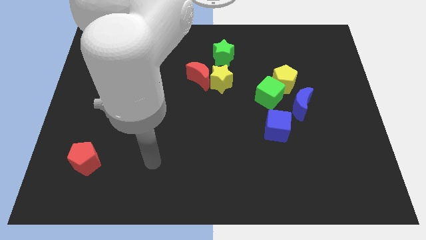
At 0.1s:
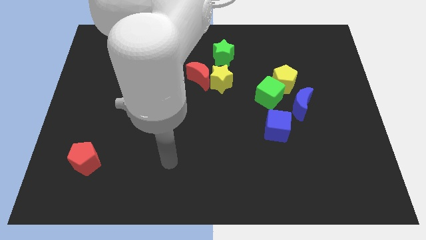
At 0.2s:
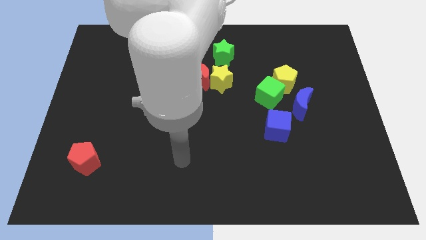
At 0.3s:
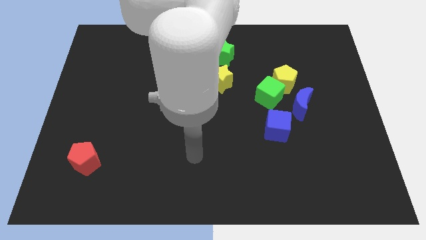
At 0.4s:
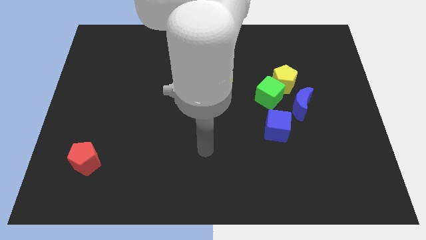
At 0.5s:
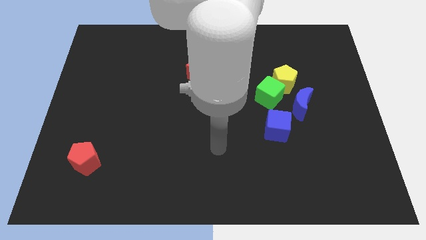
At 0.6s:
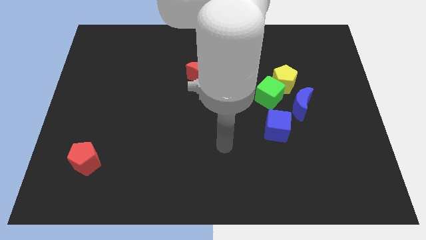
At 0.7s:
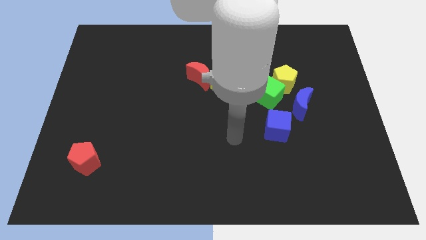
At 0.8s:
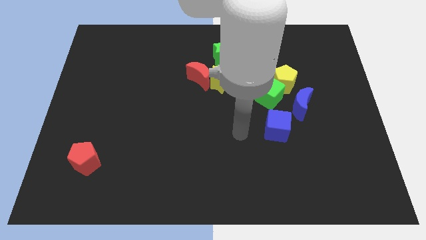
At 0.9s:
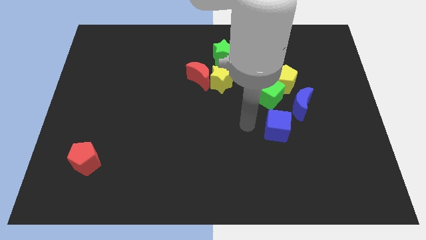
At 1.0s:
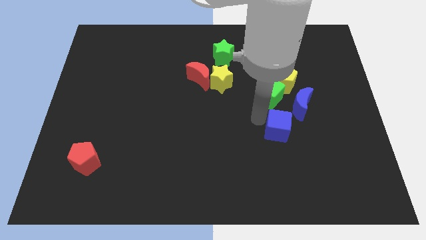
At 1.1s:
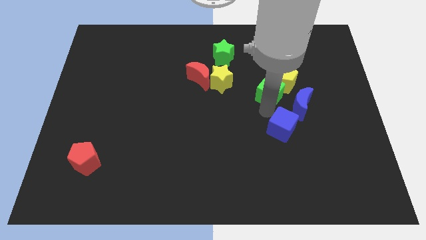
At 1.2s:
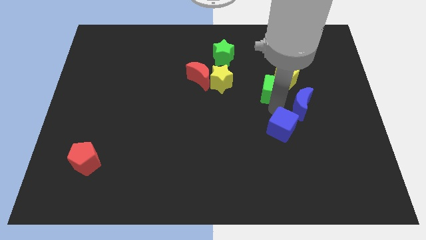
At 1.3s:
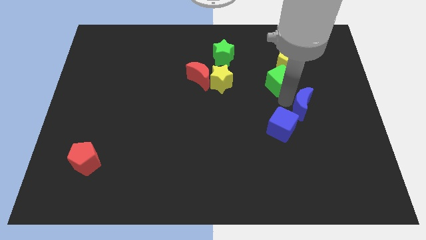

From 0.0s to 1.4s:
separate the yellow pentagon from the green cube and blue moon

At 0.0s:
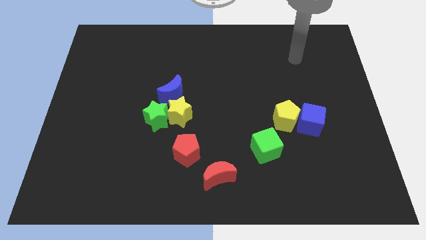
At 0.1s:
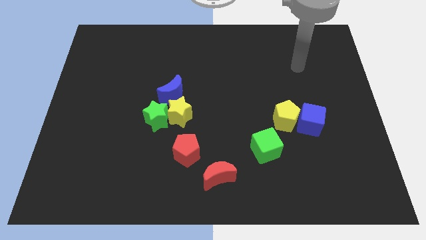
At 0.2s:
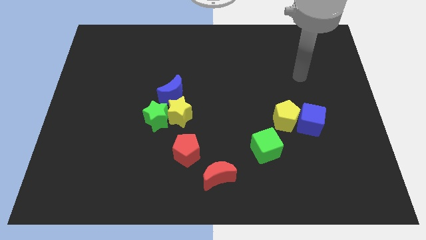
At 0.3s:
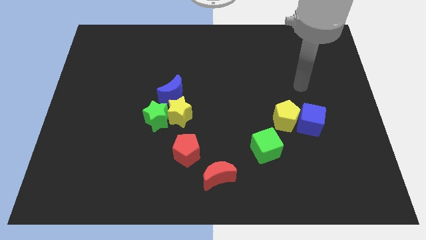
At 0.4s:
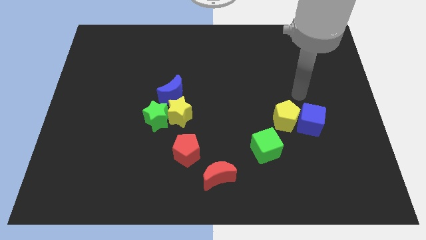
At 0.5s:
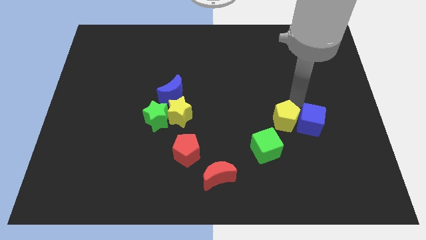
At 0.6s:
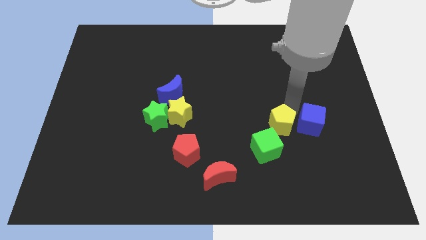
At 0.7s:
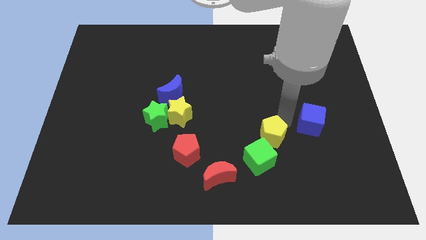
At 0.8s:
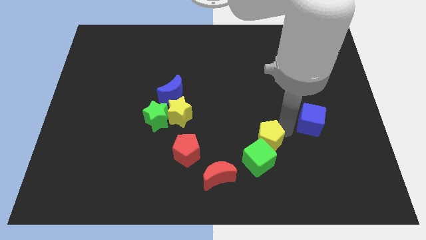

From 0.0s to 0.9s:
move the blue cube away from the yellow pentagon

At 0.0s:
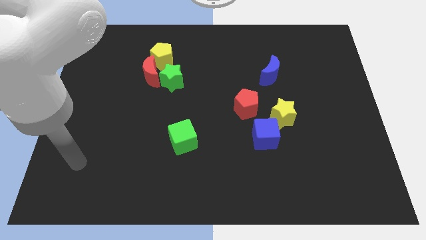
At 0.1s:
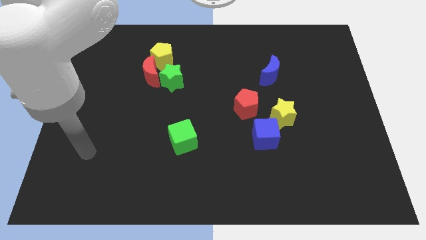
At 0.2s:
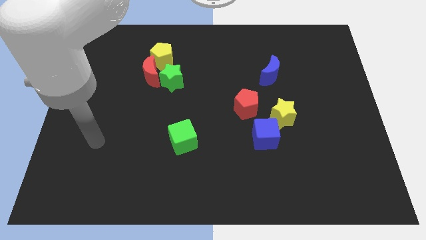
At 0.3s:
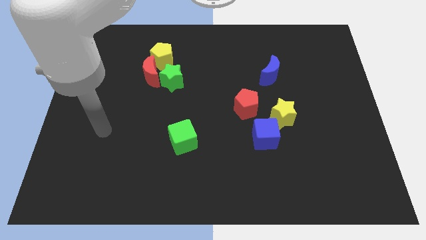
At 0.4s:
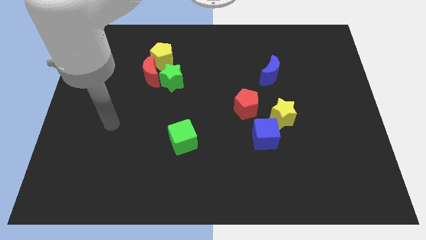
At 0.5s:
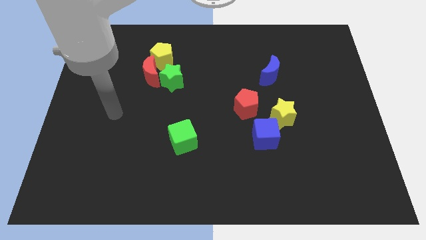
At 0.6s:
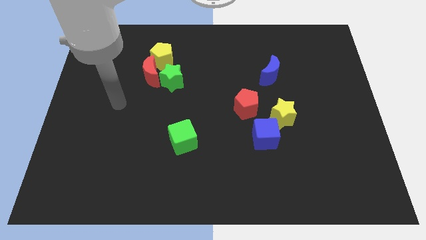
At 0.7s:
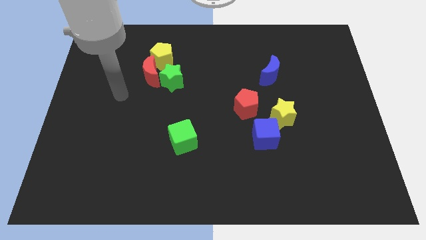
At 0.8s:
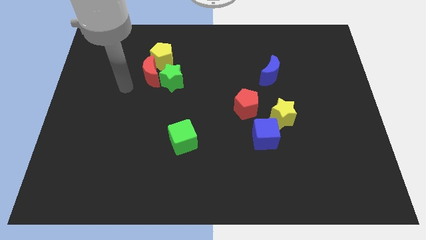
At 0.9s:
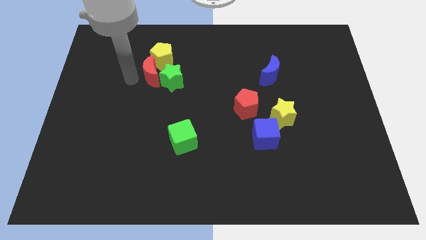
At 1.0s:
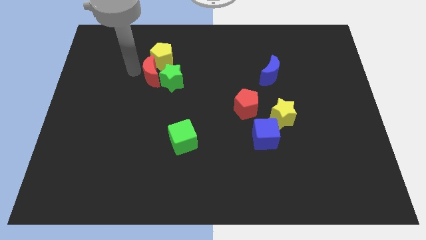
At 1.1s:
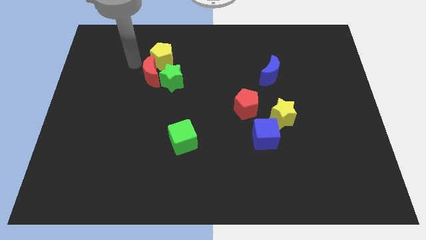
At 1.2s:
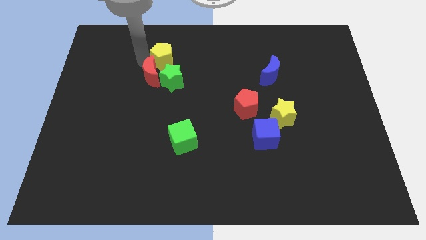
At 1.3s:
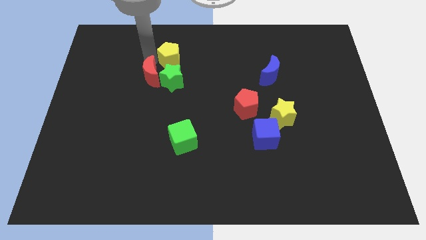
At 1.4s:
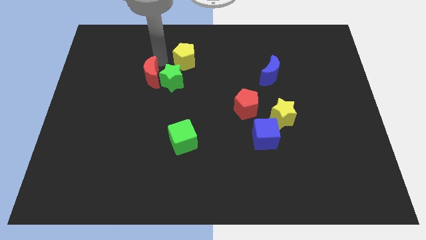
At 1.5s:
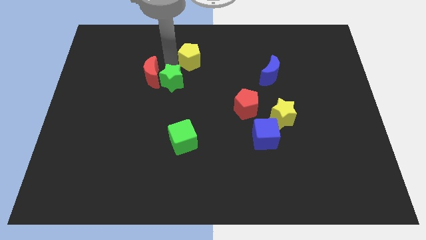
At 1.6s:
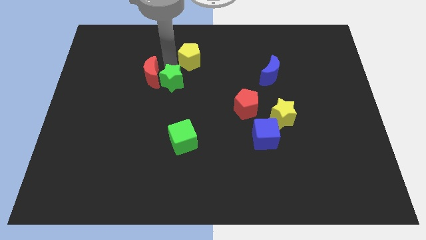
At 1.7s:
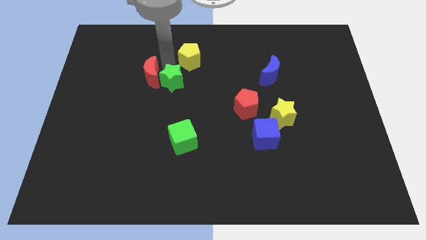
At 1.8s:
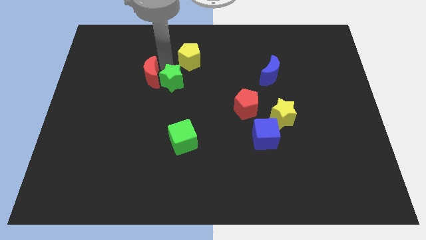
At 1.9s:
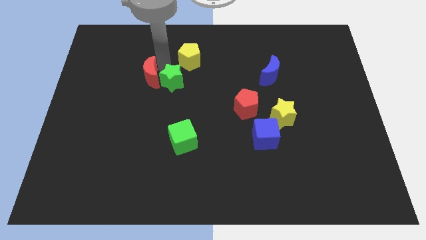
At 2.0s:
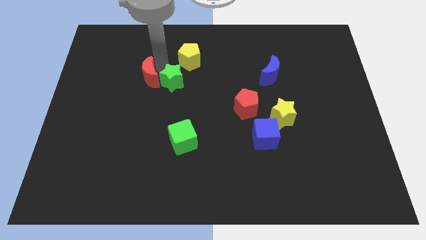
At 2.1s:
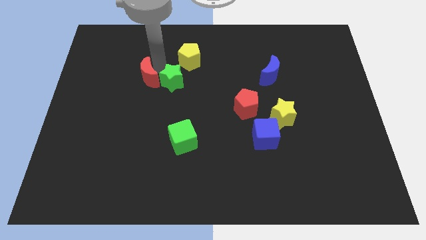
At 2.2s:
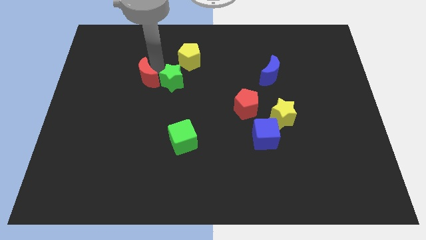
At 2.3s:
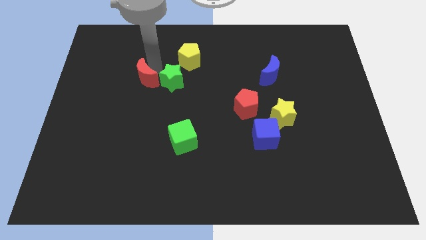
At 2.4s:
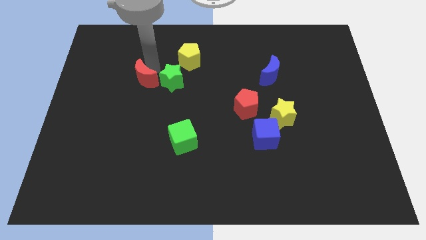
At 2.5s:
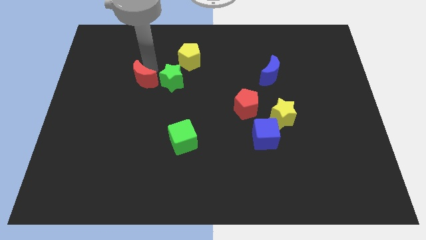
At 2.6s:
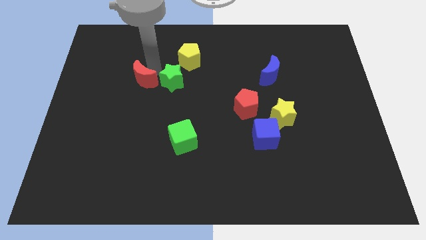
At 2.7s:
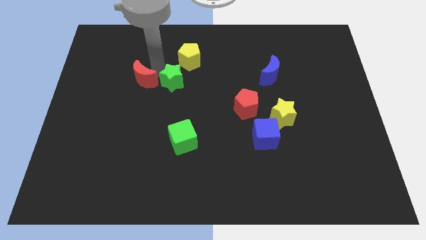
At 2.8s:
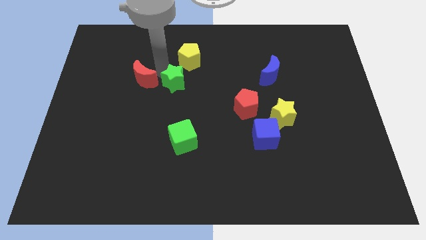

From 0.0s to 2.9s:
pull the red moon apart from the green star and yellow pentagon

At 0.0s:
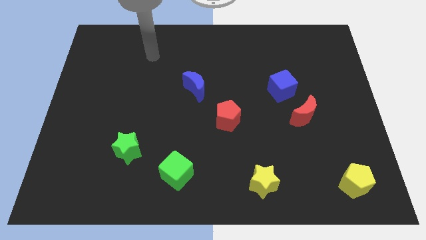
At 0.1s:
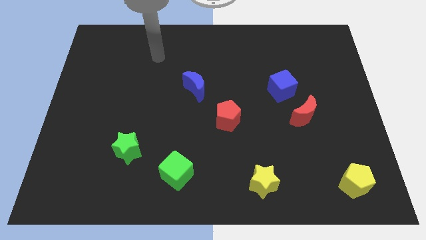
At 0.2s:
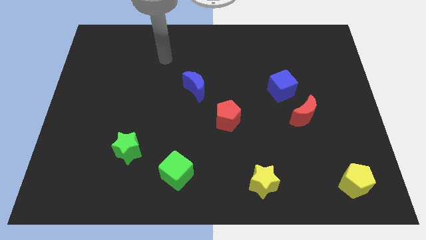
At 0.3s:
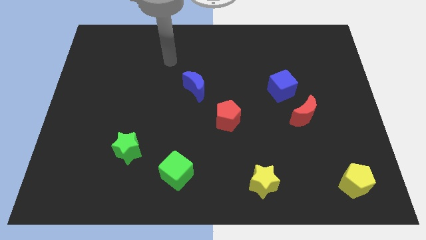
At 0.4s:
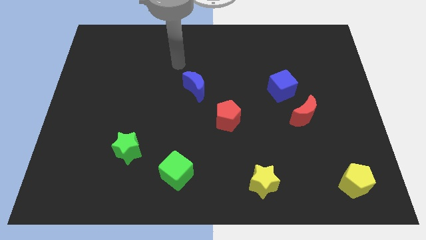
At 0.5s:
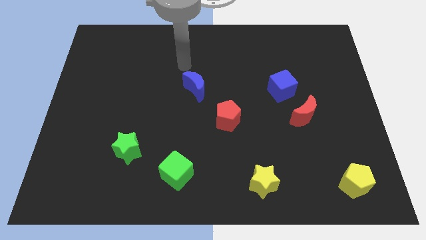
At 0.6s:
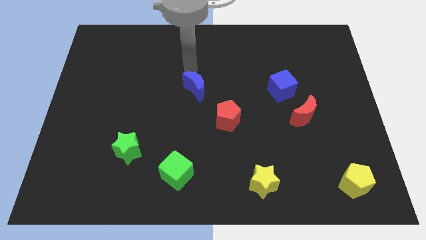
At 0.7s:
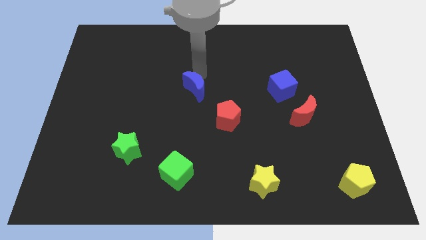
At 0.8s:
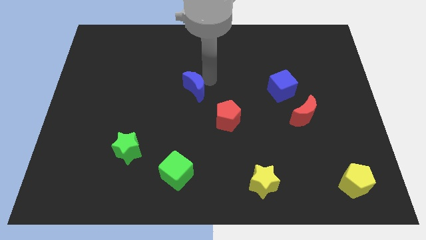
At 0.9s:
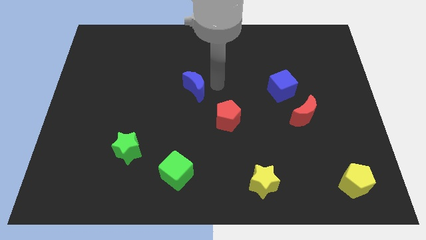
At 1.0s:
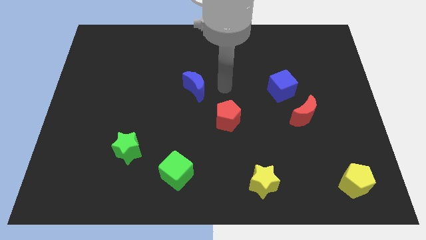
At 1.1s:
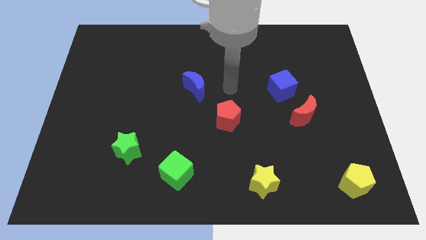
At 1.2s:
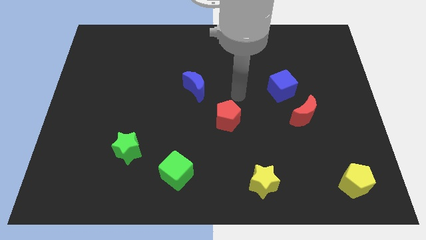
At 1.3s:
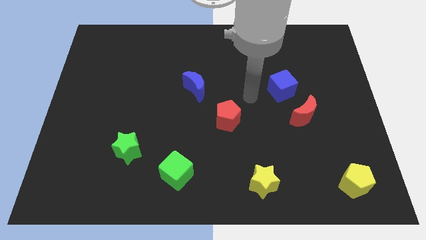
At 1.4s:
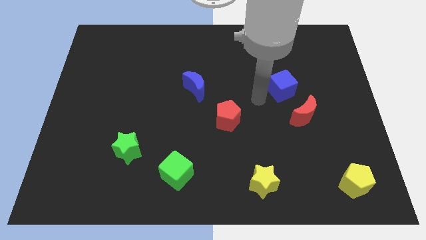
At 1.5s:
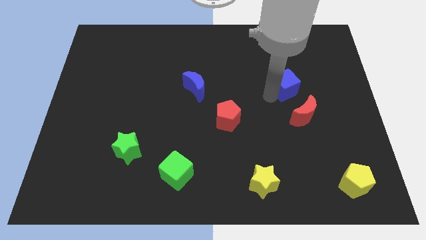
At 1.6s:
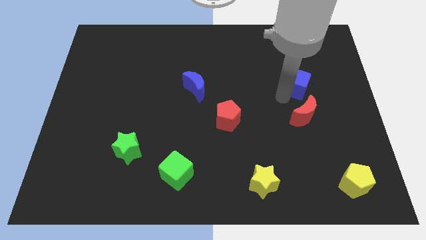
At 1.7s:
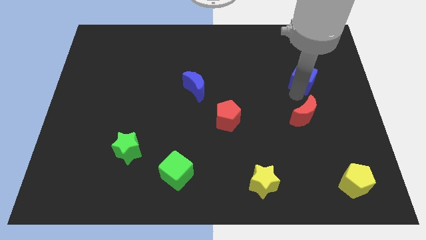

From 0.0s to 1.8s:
separate the red moon from the blue cube

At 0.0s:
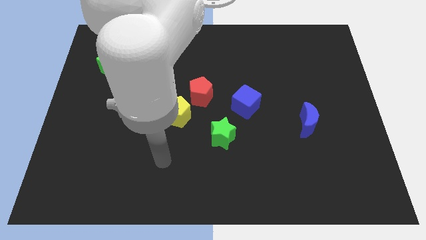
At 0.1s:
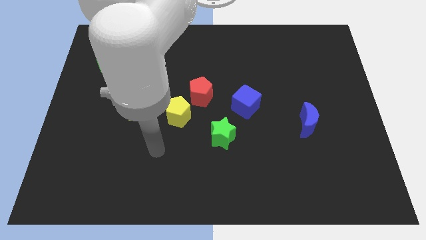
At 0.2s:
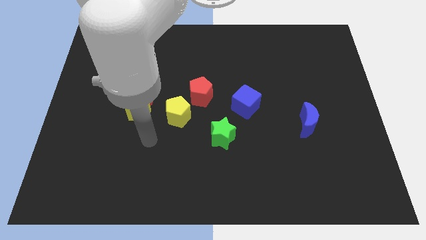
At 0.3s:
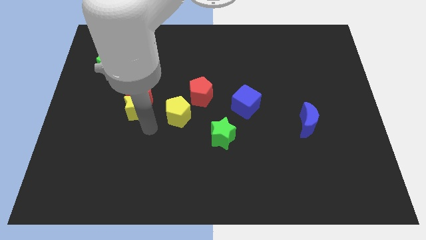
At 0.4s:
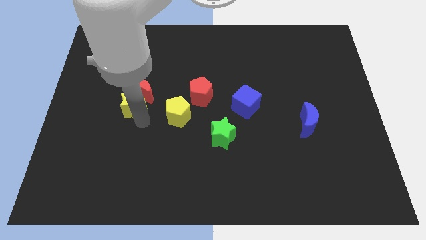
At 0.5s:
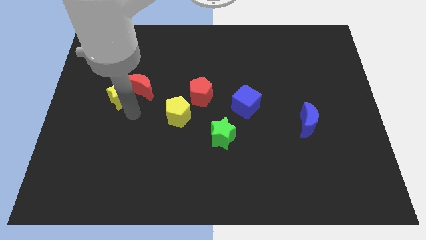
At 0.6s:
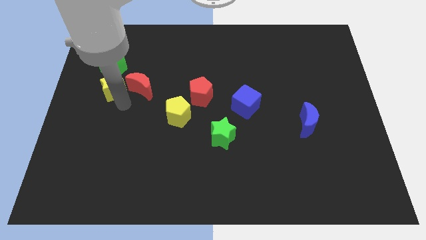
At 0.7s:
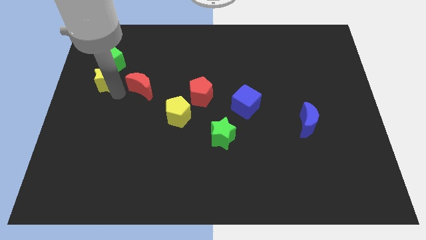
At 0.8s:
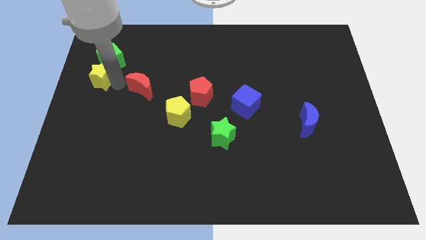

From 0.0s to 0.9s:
move the red moon away from the yellow star

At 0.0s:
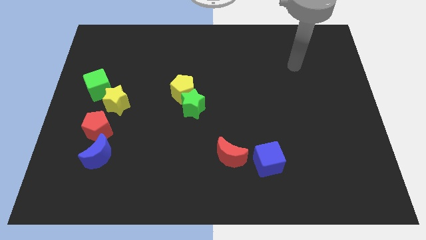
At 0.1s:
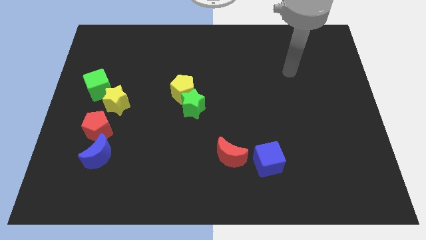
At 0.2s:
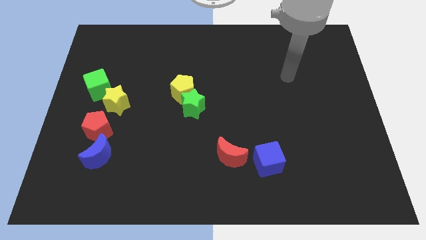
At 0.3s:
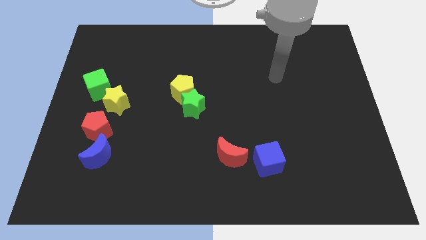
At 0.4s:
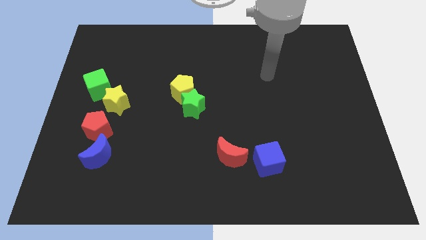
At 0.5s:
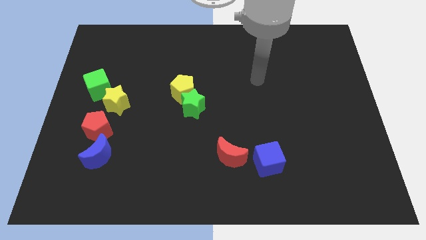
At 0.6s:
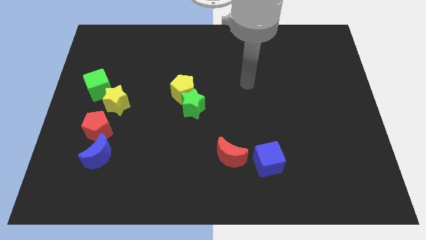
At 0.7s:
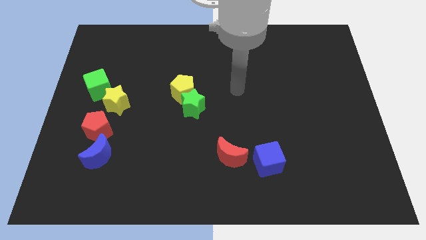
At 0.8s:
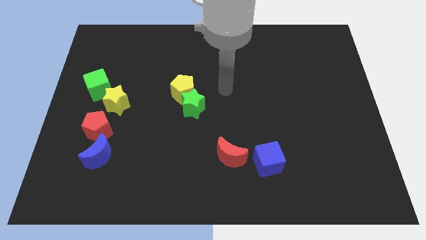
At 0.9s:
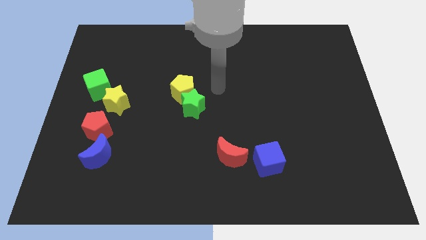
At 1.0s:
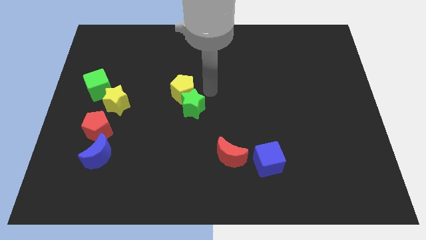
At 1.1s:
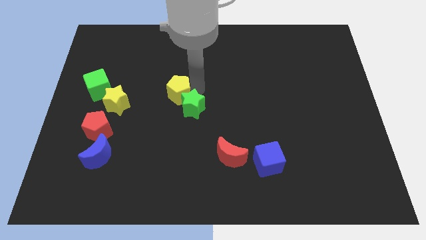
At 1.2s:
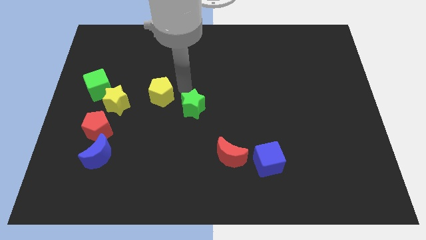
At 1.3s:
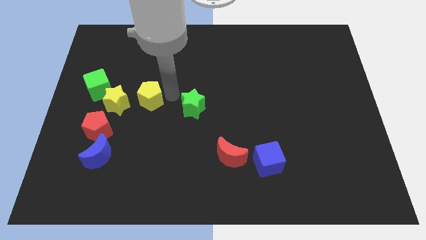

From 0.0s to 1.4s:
move the green star away from the yellow pentagon
